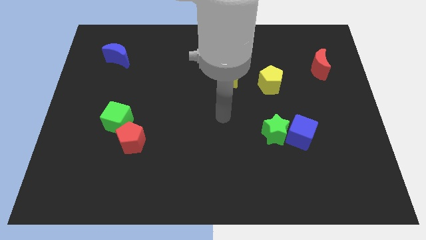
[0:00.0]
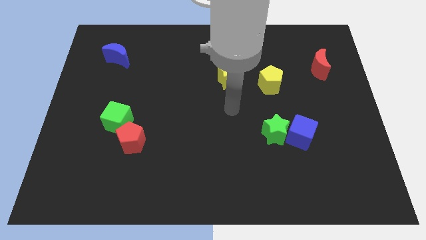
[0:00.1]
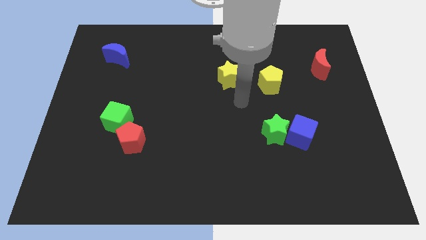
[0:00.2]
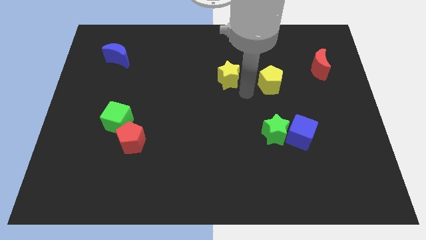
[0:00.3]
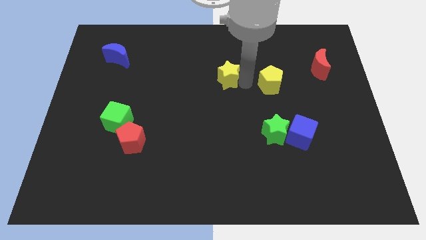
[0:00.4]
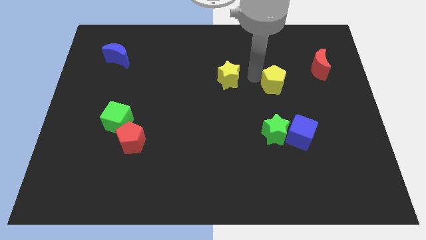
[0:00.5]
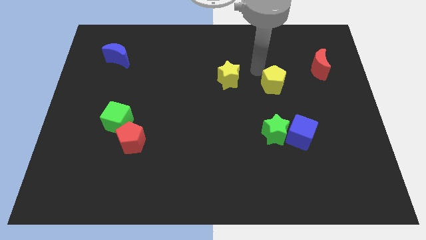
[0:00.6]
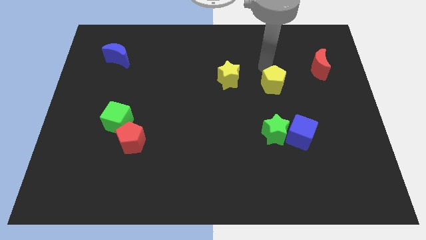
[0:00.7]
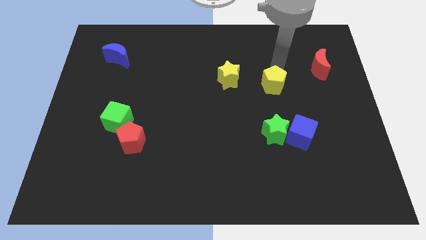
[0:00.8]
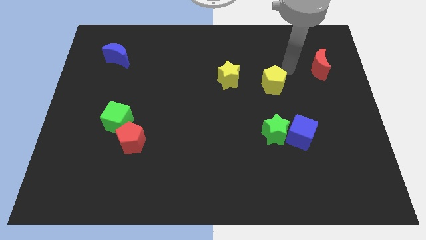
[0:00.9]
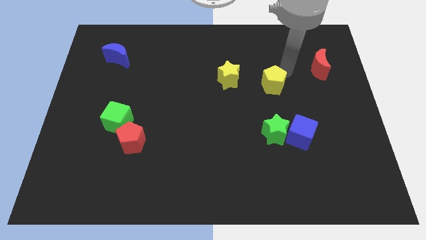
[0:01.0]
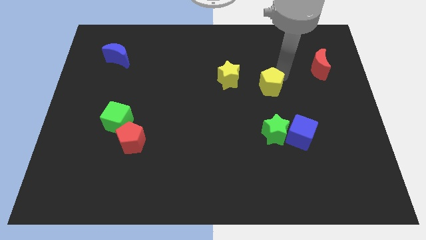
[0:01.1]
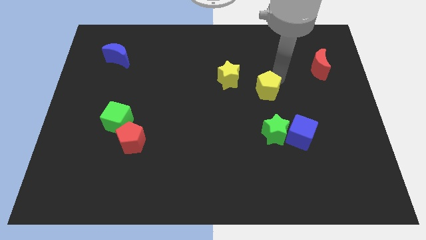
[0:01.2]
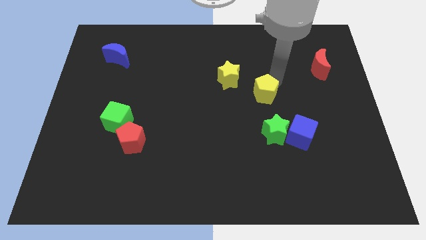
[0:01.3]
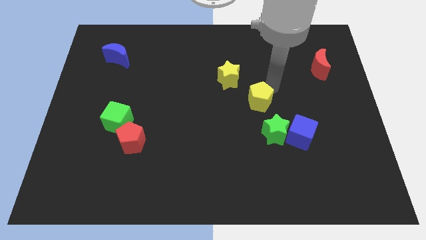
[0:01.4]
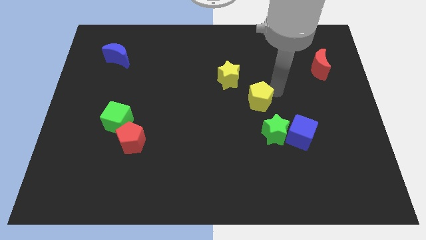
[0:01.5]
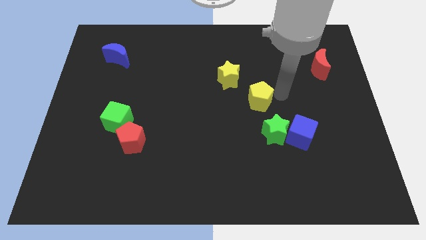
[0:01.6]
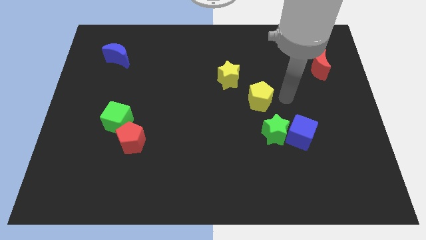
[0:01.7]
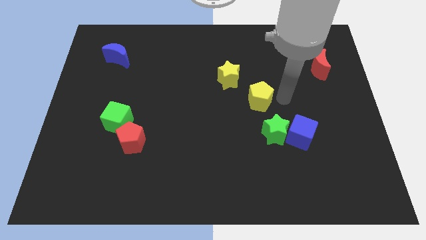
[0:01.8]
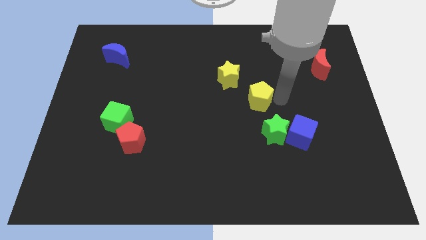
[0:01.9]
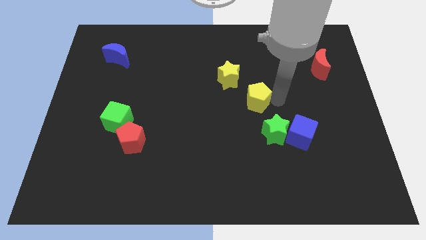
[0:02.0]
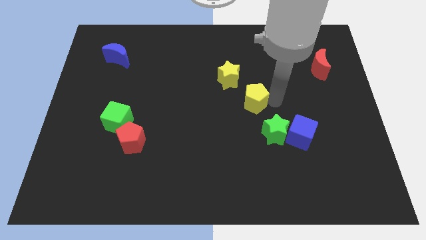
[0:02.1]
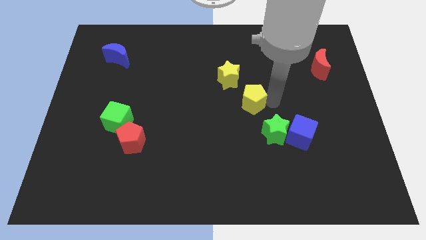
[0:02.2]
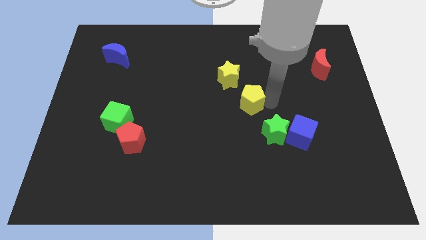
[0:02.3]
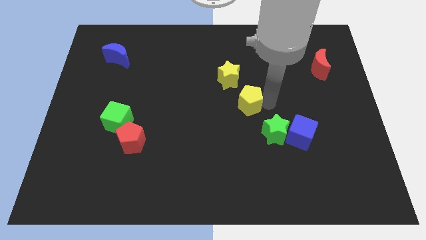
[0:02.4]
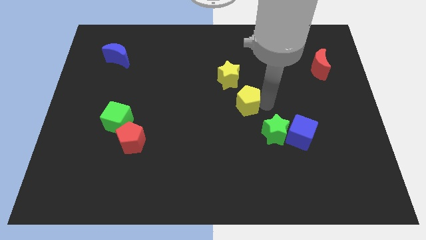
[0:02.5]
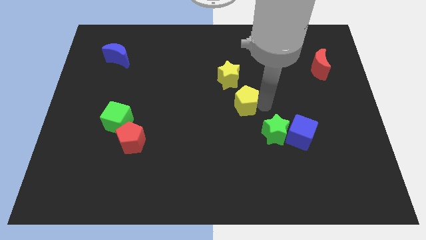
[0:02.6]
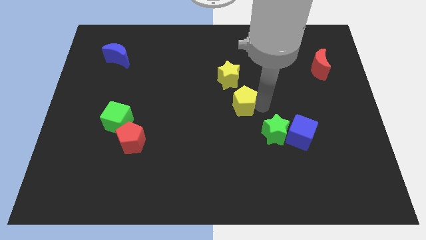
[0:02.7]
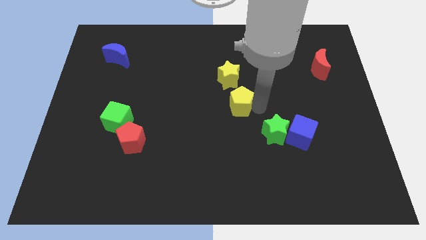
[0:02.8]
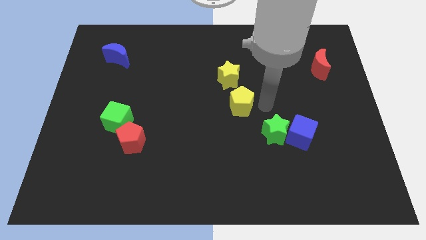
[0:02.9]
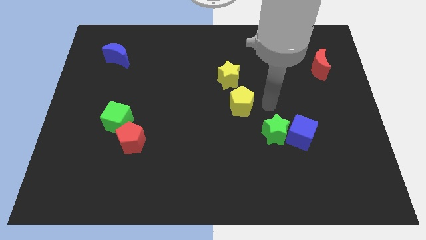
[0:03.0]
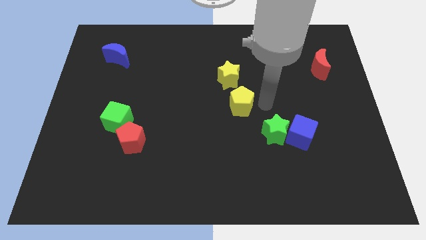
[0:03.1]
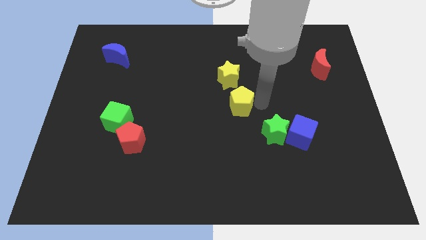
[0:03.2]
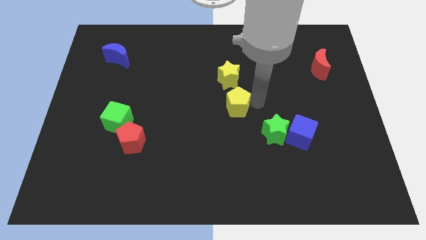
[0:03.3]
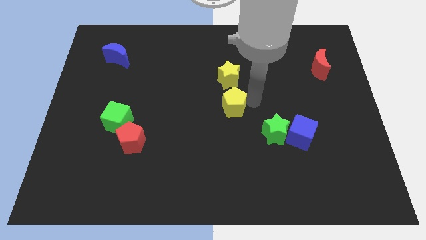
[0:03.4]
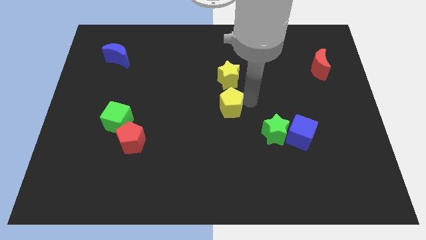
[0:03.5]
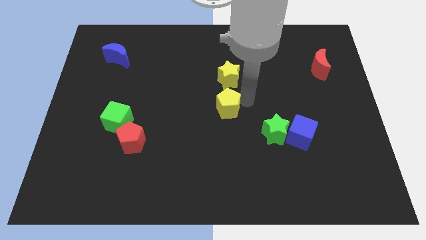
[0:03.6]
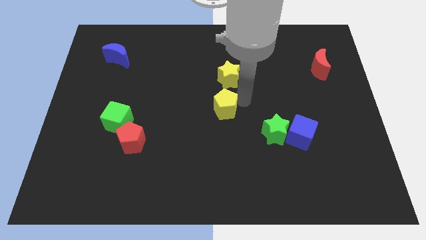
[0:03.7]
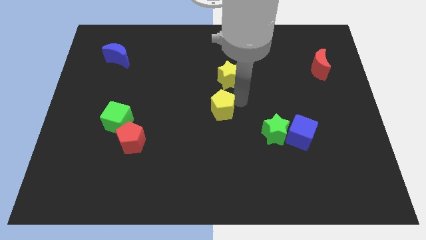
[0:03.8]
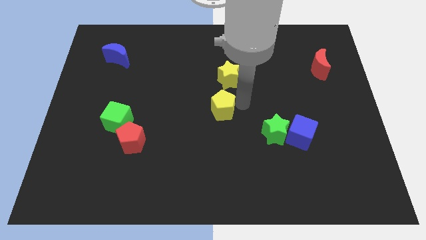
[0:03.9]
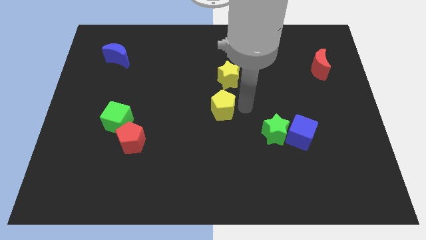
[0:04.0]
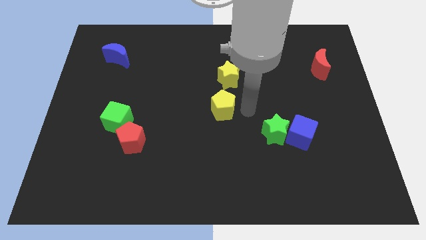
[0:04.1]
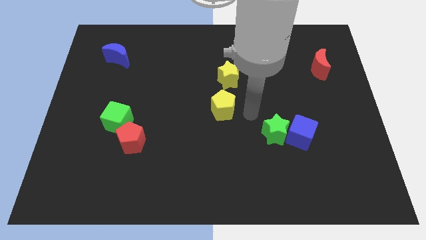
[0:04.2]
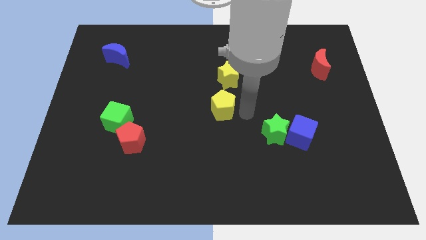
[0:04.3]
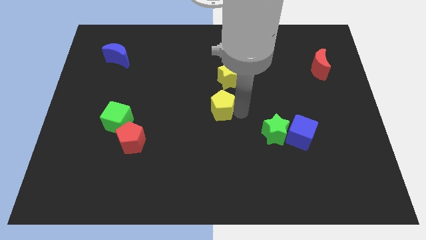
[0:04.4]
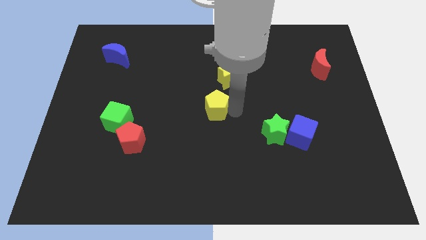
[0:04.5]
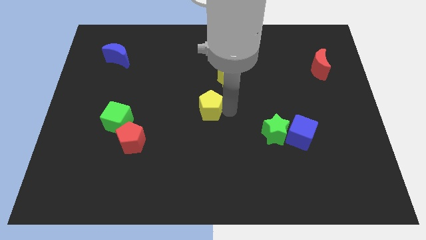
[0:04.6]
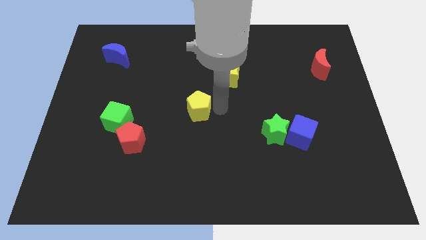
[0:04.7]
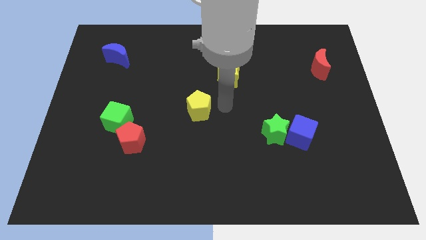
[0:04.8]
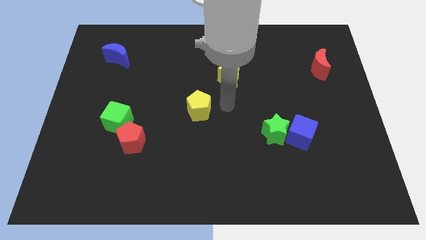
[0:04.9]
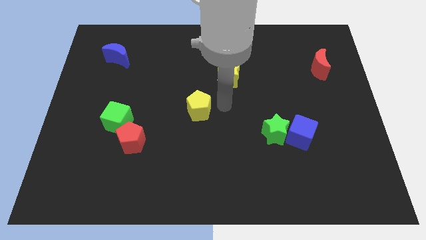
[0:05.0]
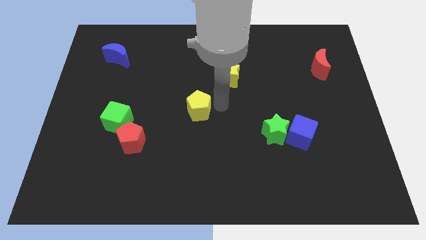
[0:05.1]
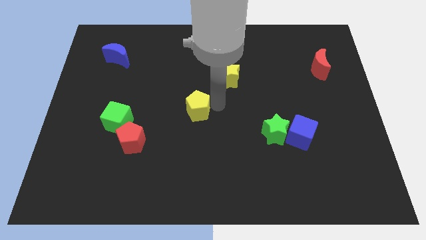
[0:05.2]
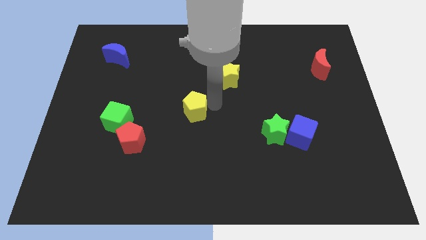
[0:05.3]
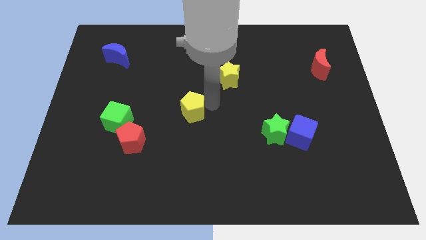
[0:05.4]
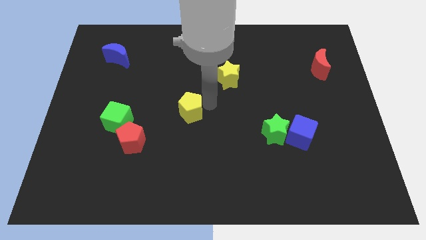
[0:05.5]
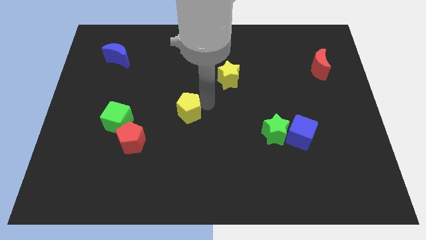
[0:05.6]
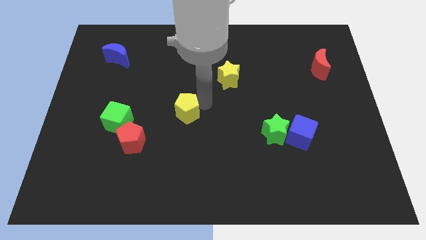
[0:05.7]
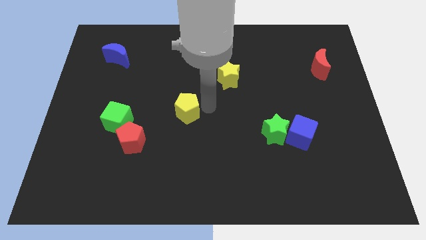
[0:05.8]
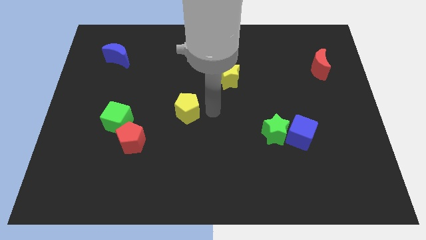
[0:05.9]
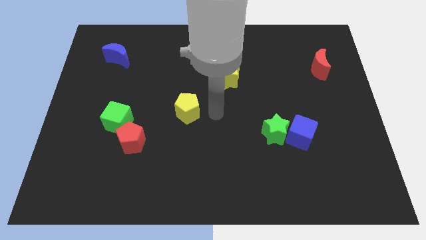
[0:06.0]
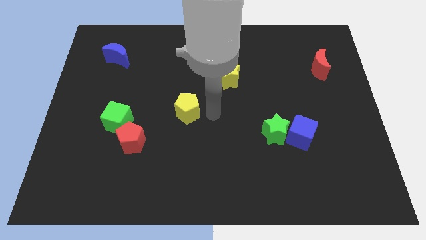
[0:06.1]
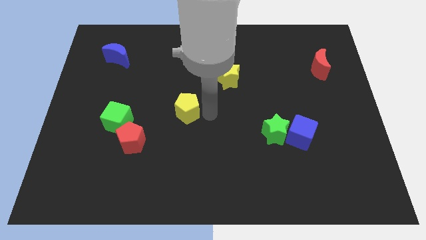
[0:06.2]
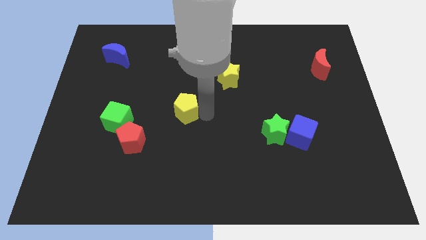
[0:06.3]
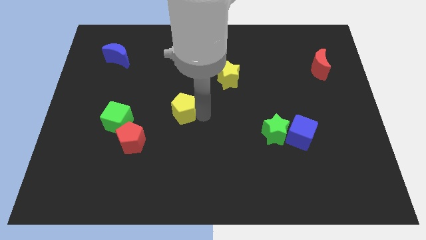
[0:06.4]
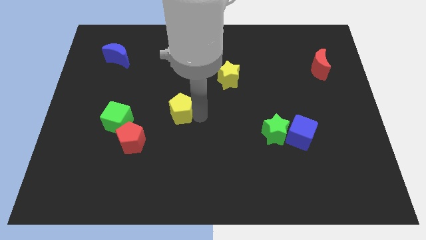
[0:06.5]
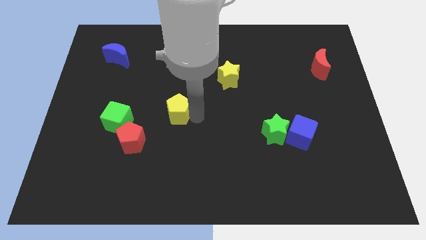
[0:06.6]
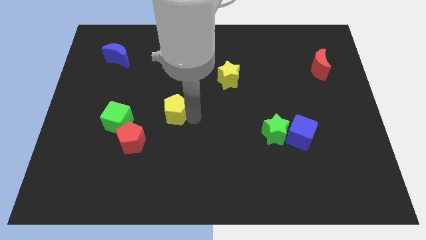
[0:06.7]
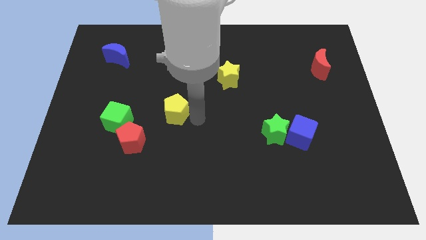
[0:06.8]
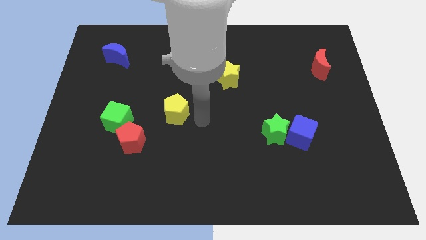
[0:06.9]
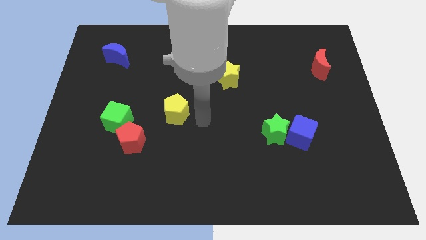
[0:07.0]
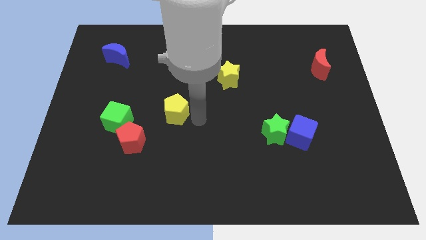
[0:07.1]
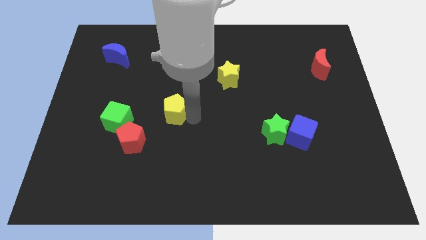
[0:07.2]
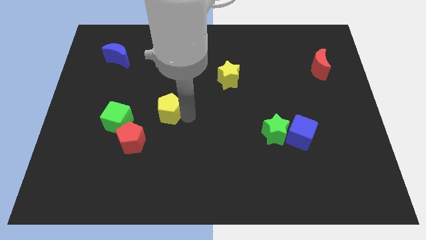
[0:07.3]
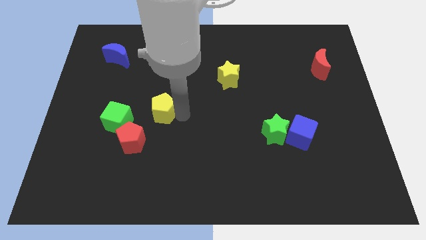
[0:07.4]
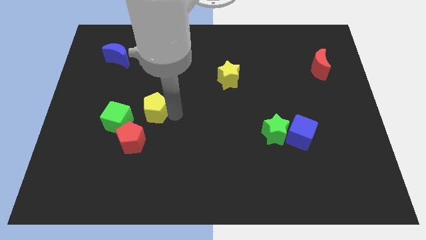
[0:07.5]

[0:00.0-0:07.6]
put the yellow pentagon to the top right of the green cube
